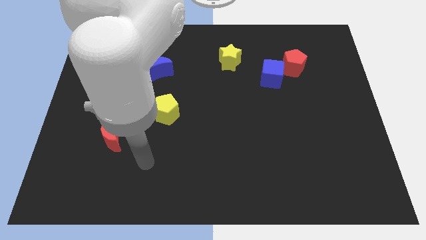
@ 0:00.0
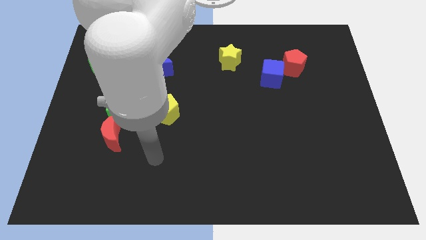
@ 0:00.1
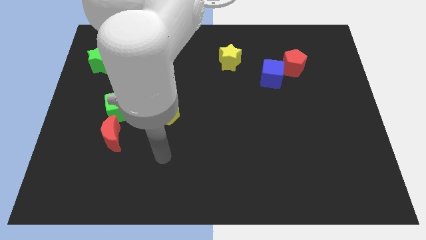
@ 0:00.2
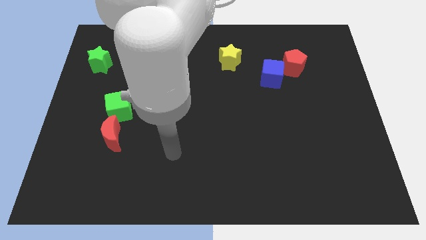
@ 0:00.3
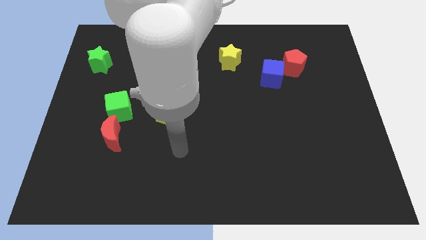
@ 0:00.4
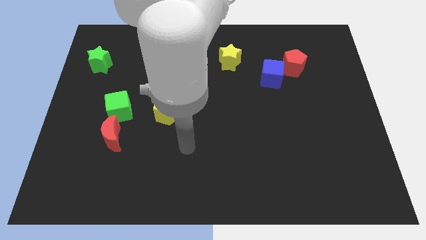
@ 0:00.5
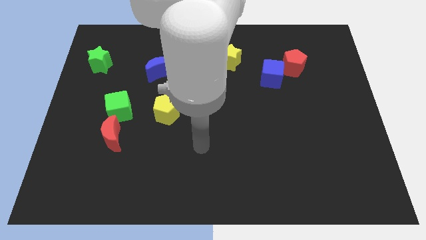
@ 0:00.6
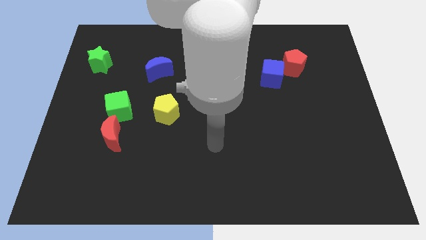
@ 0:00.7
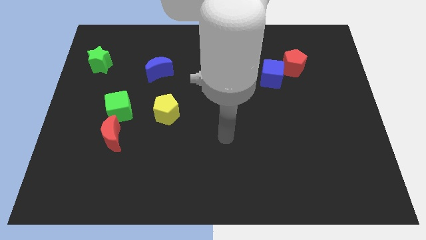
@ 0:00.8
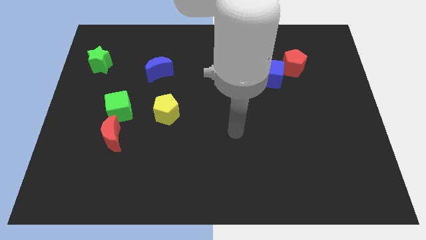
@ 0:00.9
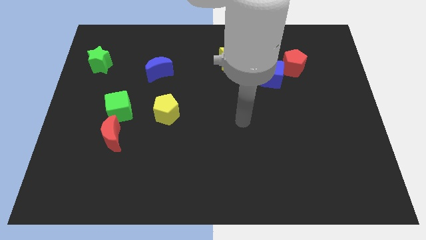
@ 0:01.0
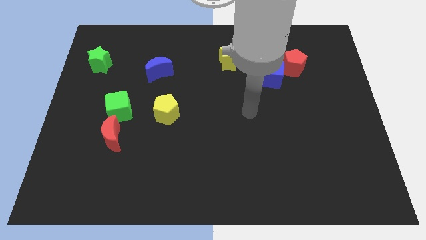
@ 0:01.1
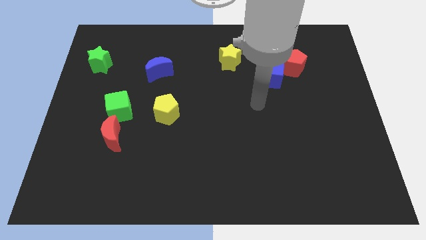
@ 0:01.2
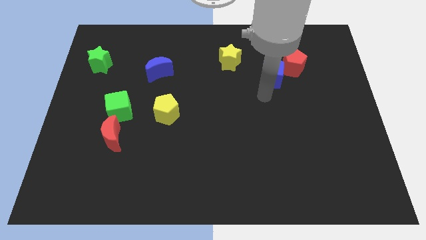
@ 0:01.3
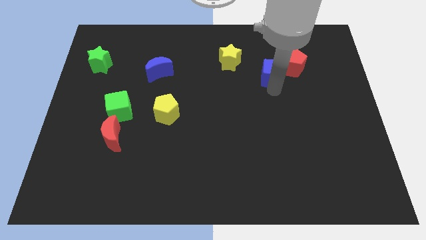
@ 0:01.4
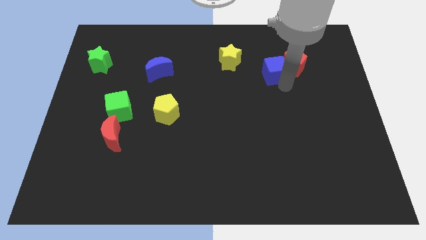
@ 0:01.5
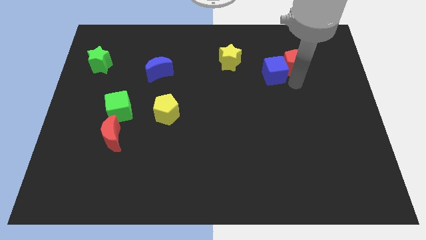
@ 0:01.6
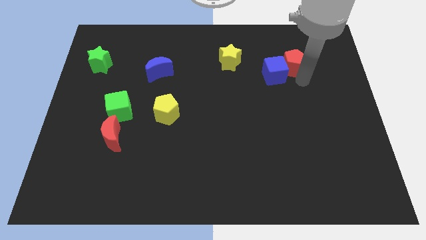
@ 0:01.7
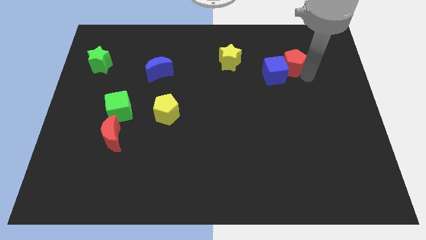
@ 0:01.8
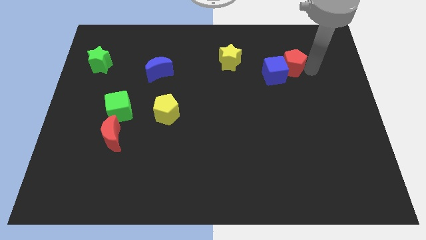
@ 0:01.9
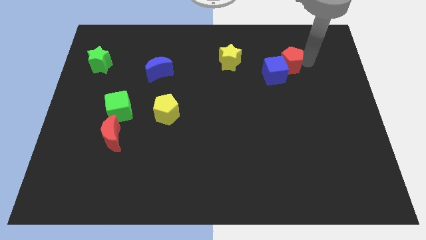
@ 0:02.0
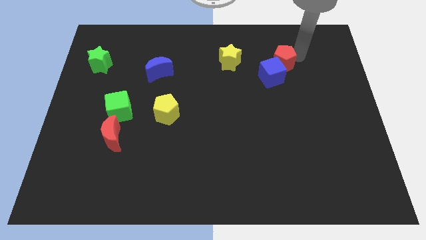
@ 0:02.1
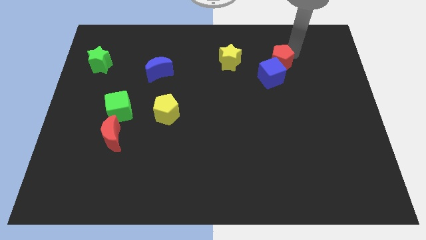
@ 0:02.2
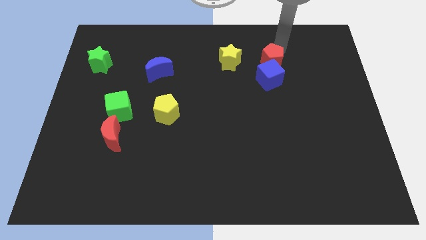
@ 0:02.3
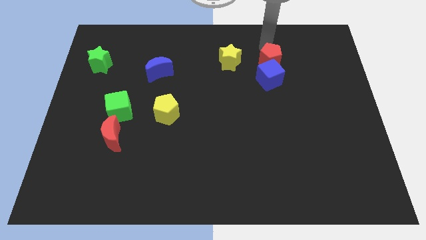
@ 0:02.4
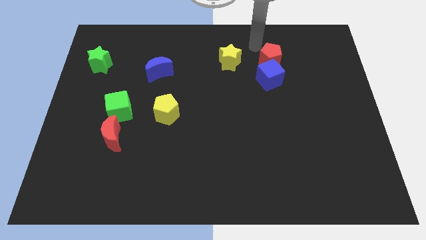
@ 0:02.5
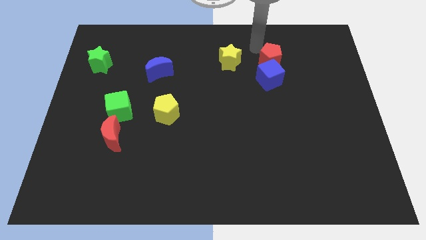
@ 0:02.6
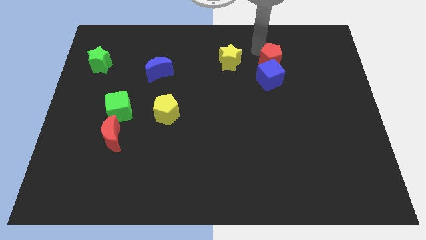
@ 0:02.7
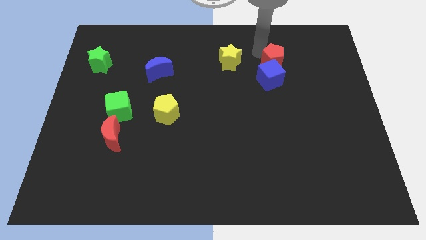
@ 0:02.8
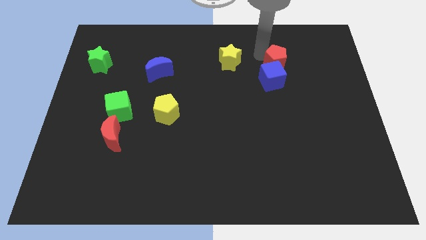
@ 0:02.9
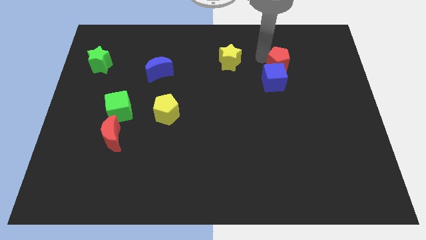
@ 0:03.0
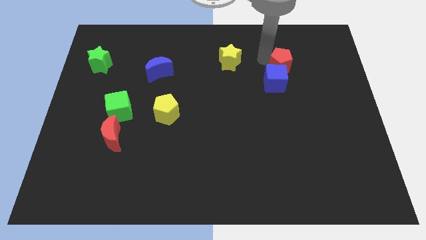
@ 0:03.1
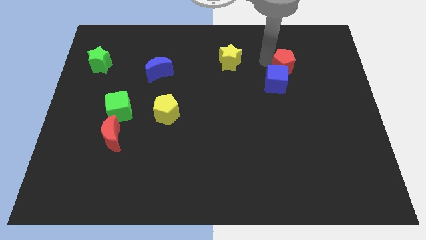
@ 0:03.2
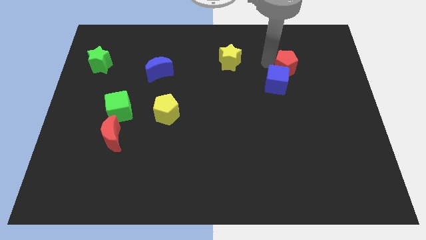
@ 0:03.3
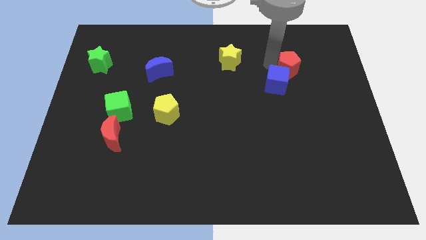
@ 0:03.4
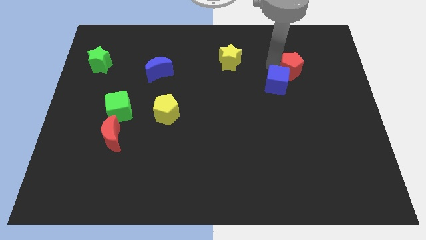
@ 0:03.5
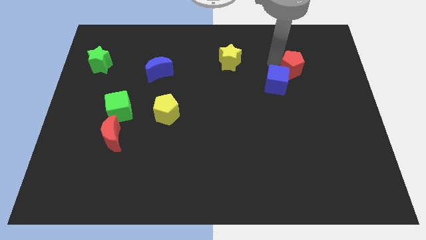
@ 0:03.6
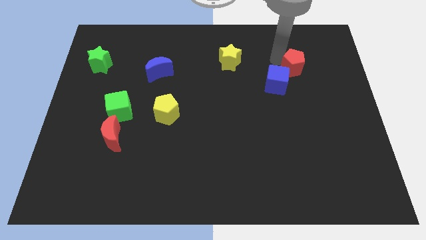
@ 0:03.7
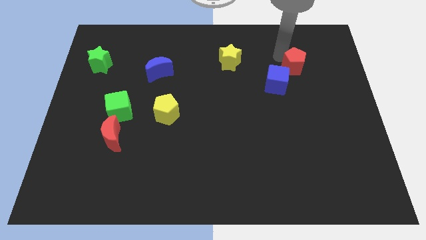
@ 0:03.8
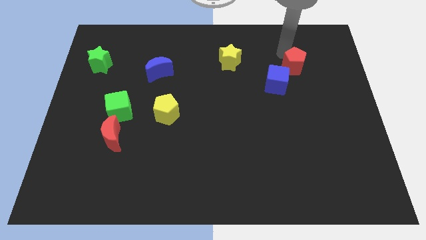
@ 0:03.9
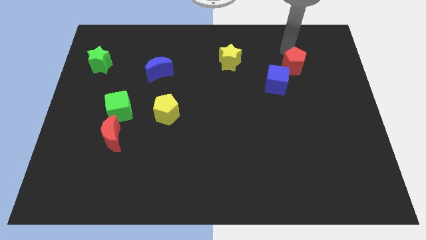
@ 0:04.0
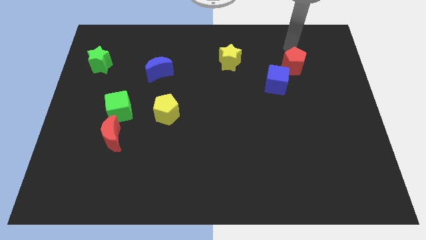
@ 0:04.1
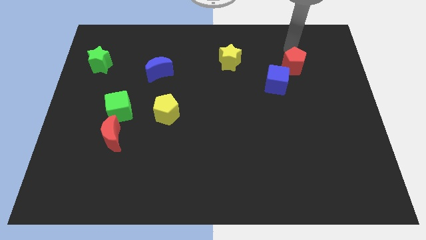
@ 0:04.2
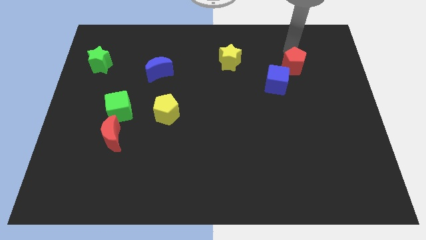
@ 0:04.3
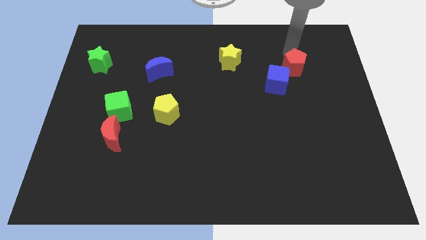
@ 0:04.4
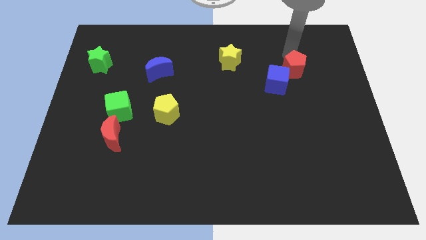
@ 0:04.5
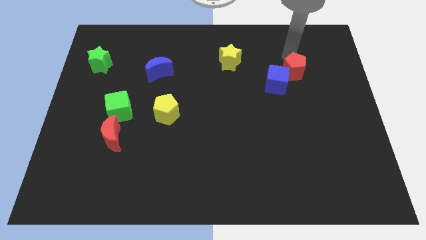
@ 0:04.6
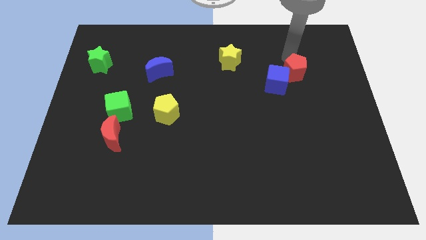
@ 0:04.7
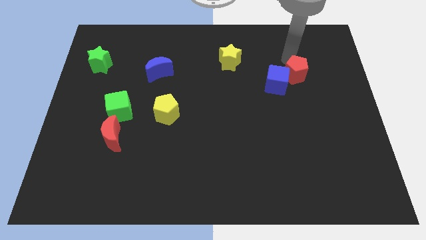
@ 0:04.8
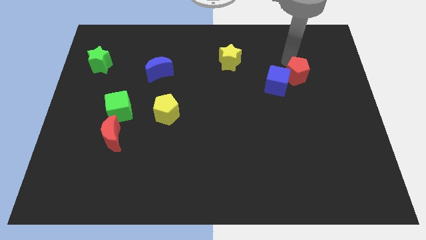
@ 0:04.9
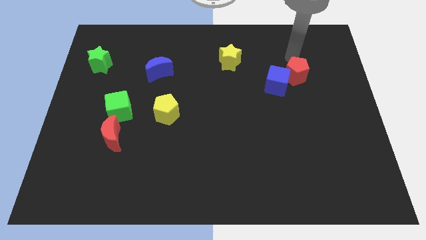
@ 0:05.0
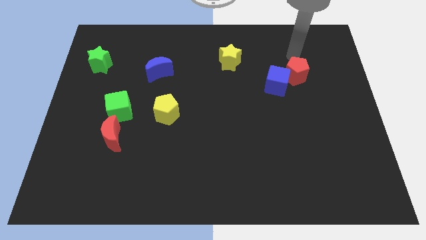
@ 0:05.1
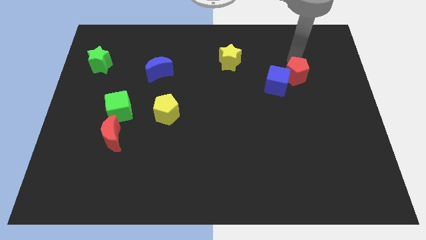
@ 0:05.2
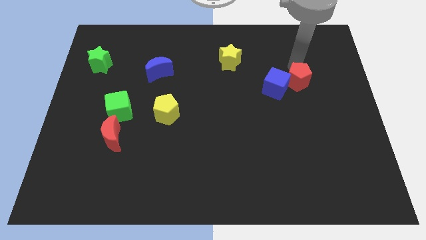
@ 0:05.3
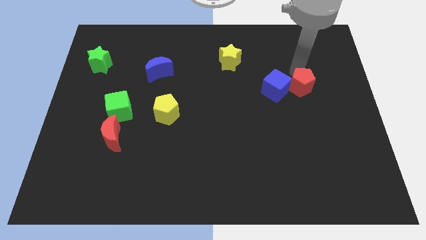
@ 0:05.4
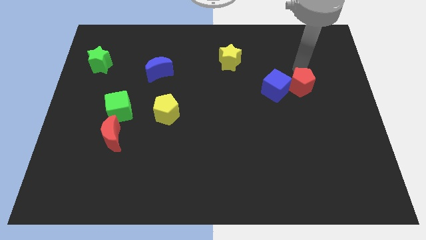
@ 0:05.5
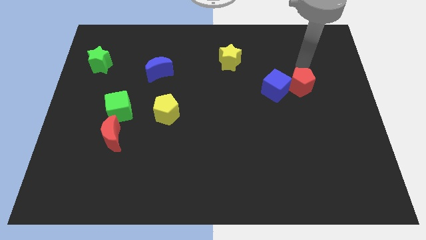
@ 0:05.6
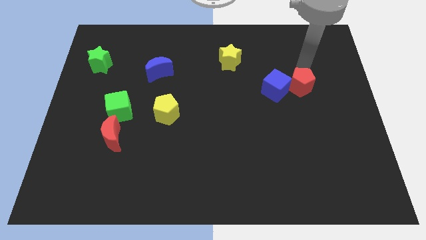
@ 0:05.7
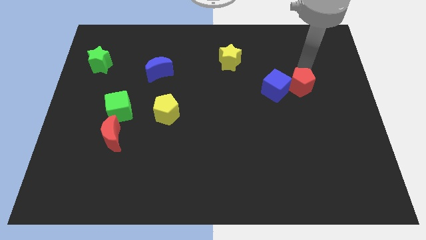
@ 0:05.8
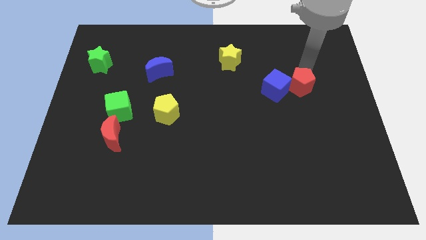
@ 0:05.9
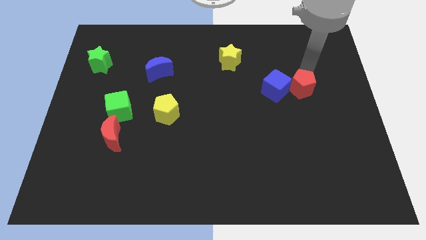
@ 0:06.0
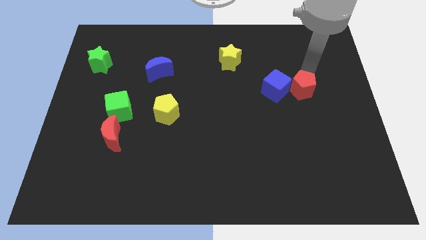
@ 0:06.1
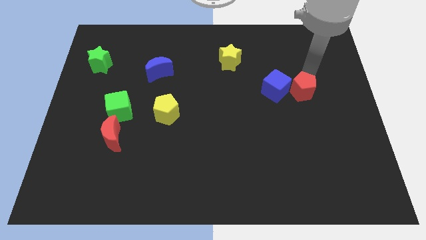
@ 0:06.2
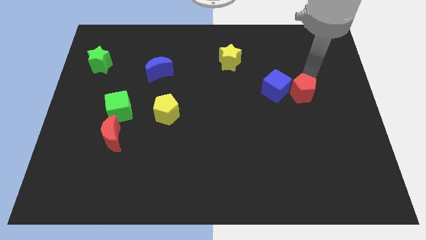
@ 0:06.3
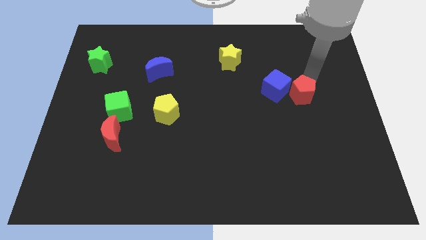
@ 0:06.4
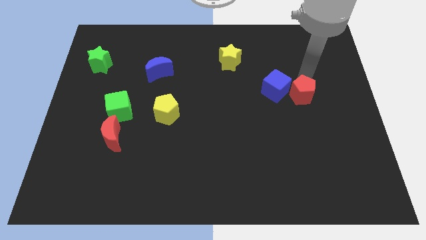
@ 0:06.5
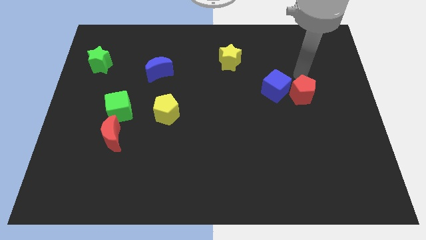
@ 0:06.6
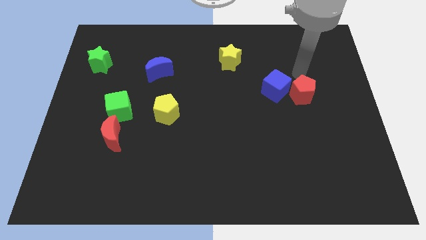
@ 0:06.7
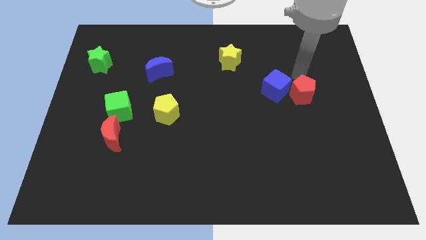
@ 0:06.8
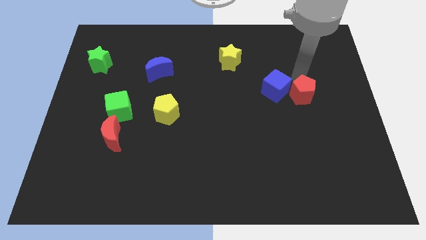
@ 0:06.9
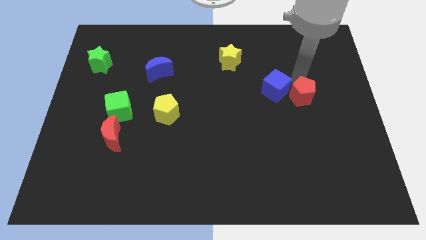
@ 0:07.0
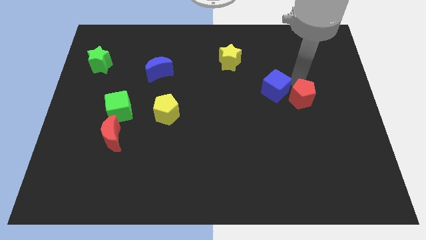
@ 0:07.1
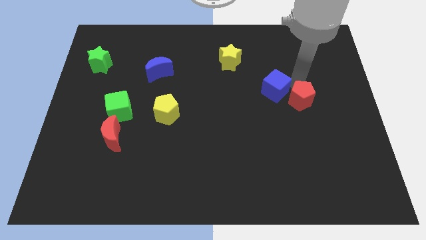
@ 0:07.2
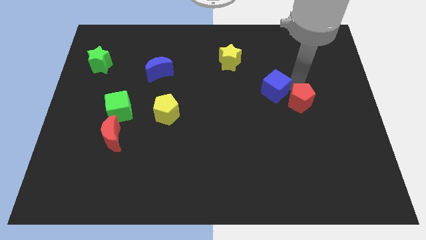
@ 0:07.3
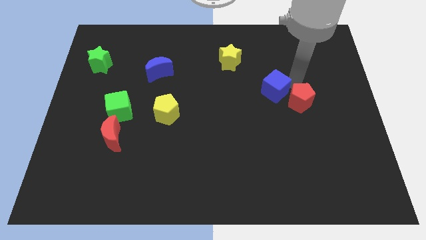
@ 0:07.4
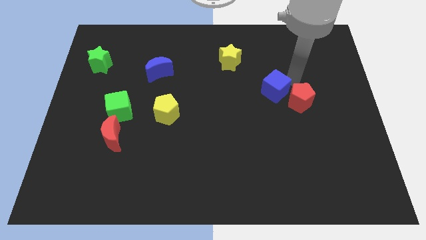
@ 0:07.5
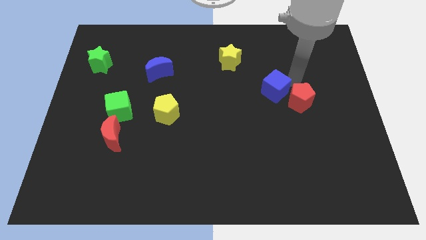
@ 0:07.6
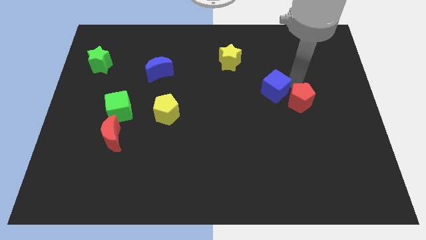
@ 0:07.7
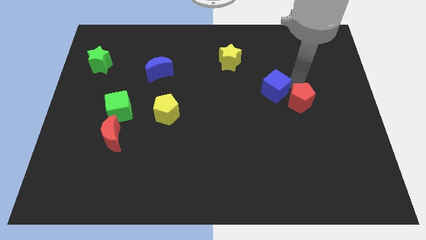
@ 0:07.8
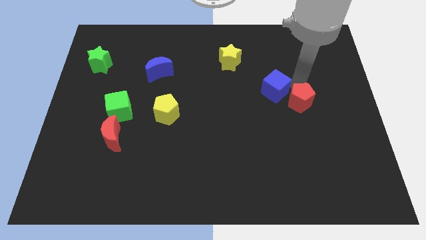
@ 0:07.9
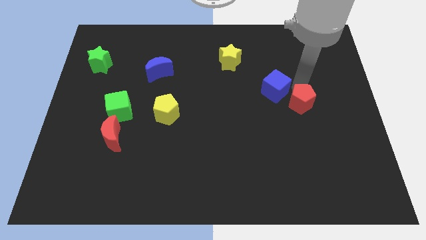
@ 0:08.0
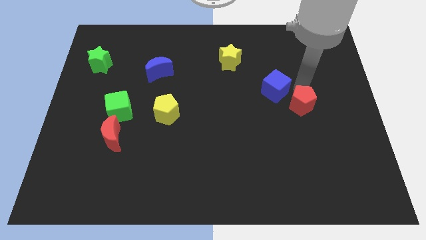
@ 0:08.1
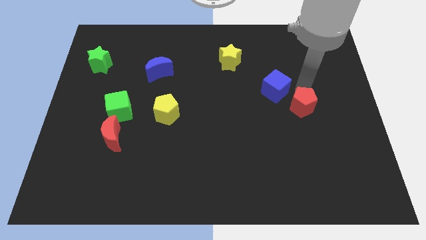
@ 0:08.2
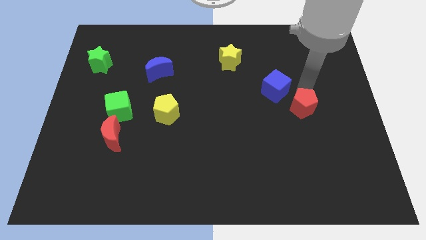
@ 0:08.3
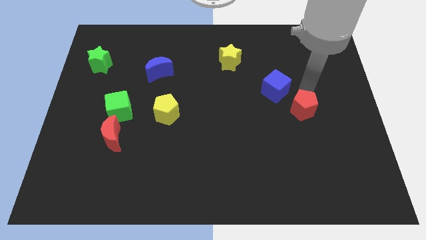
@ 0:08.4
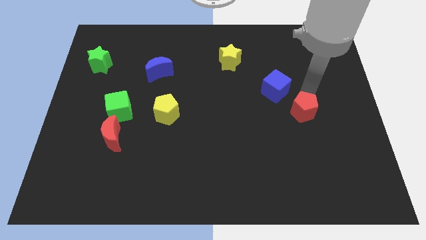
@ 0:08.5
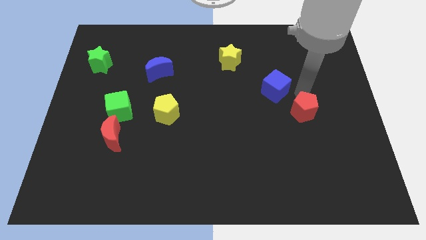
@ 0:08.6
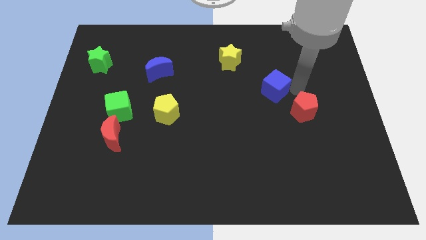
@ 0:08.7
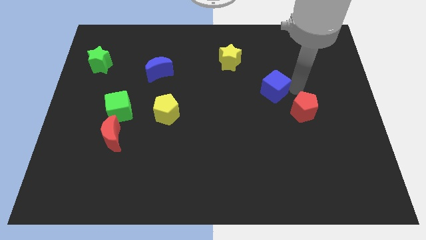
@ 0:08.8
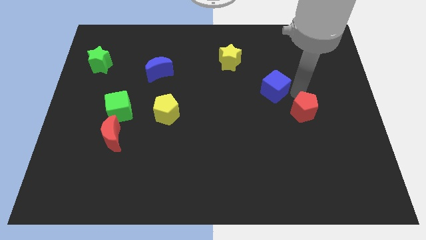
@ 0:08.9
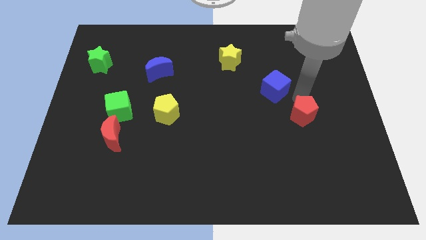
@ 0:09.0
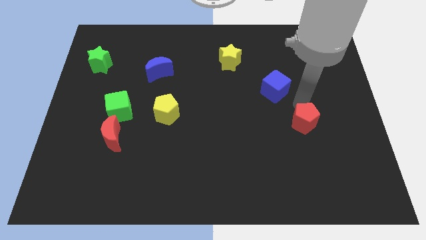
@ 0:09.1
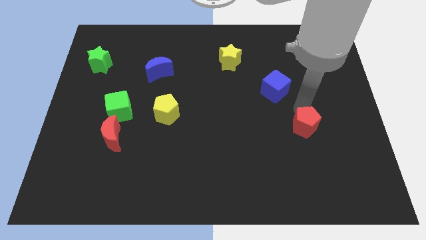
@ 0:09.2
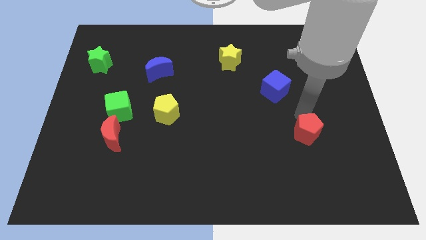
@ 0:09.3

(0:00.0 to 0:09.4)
slide the red pentagon downwards
